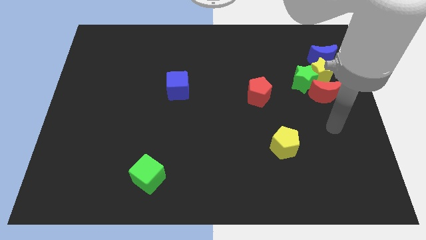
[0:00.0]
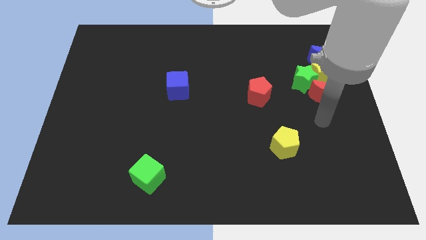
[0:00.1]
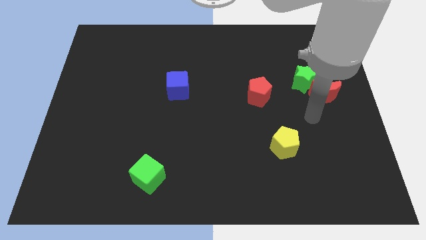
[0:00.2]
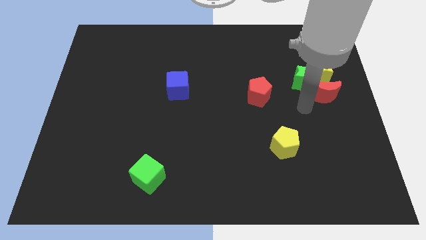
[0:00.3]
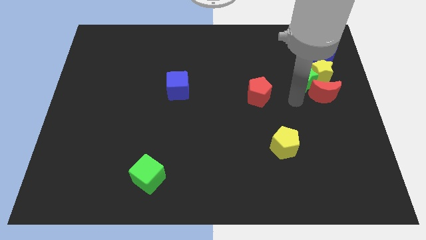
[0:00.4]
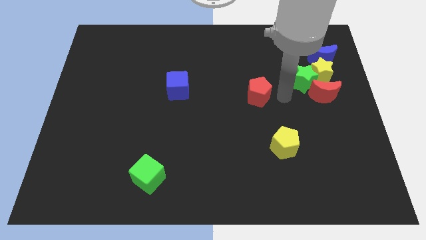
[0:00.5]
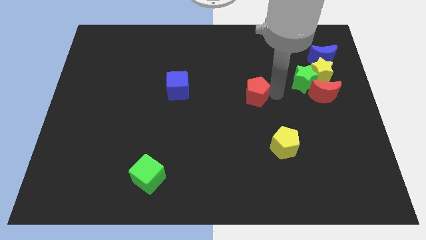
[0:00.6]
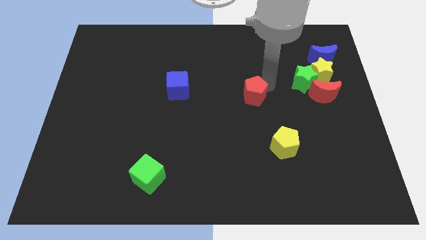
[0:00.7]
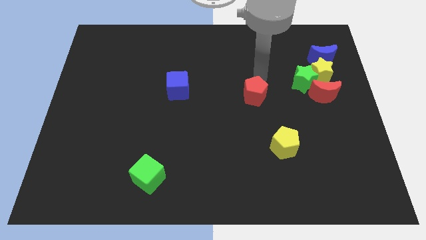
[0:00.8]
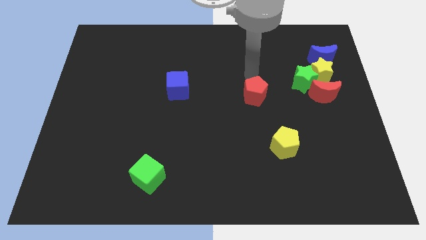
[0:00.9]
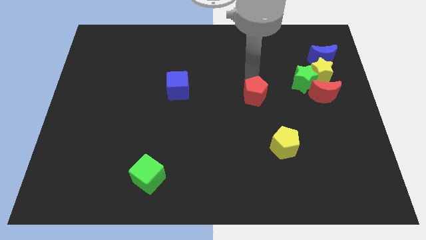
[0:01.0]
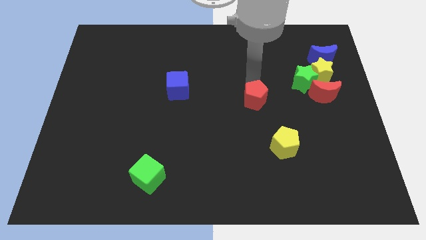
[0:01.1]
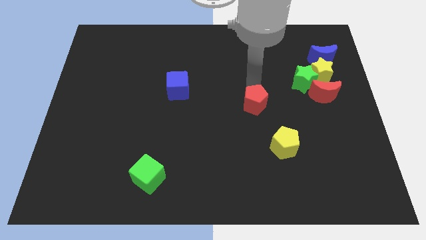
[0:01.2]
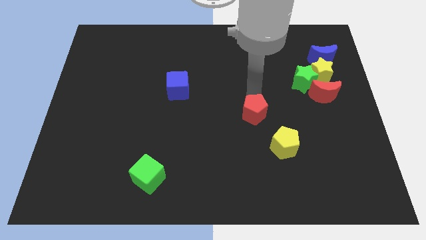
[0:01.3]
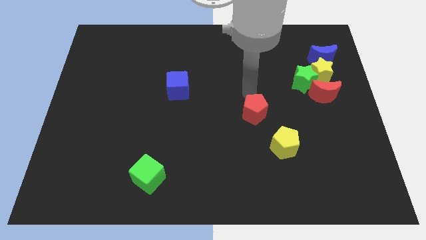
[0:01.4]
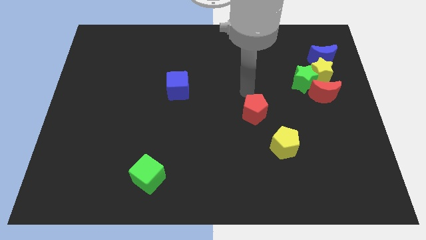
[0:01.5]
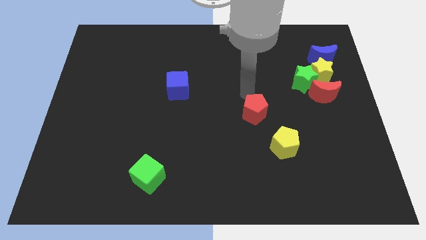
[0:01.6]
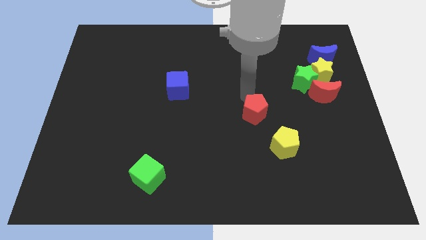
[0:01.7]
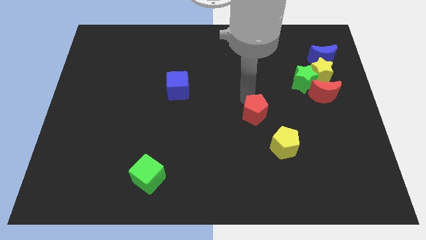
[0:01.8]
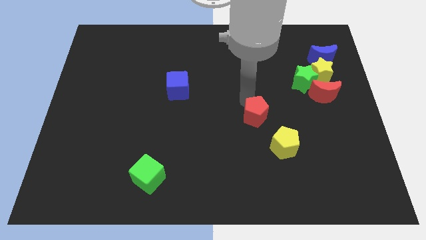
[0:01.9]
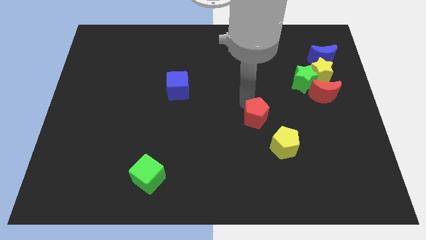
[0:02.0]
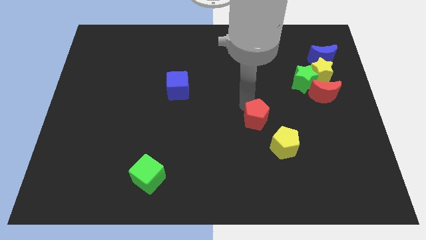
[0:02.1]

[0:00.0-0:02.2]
push the red pentagon a little down

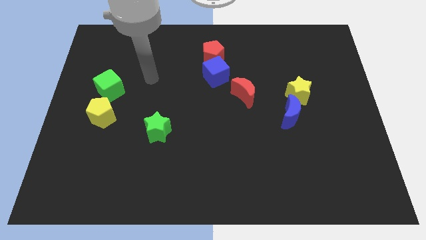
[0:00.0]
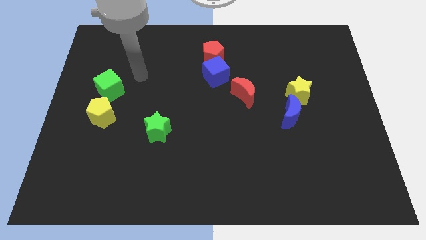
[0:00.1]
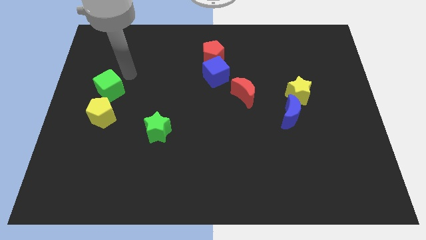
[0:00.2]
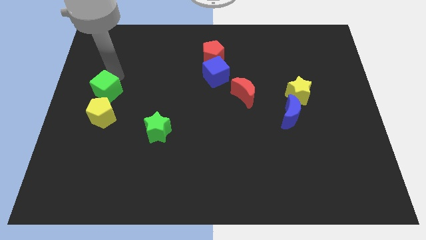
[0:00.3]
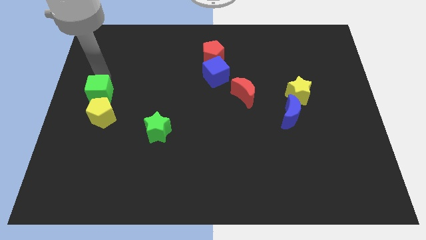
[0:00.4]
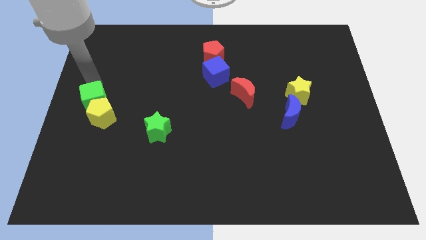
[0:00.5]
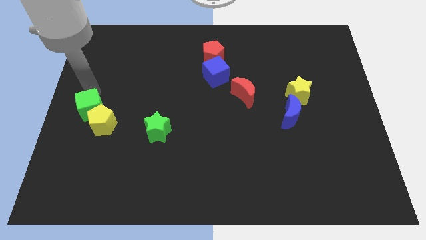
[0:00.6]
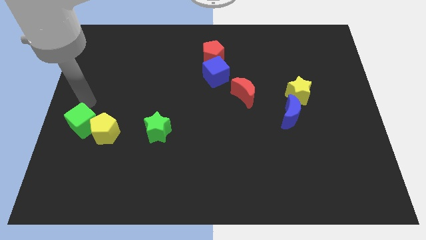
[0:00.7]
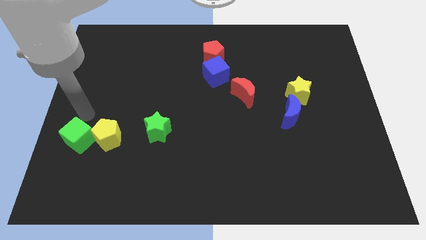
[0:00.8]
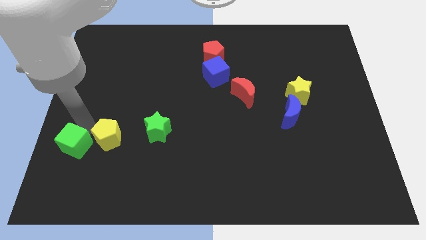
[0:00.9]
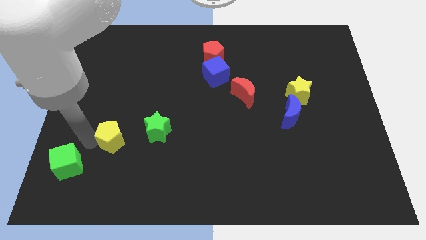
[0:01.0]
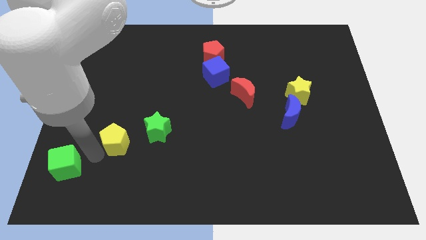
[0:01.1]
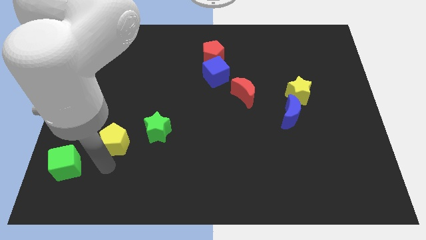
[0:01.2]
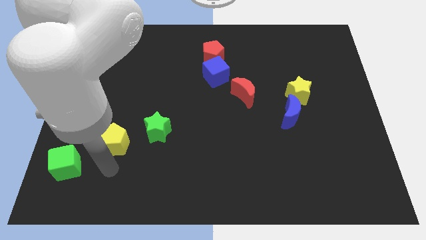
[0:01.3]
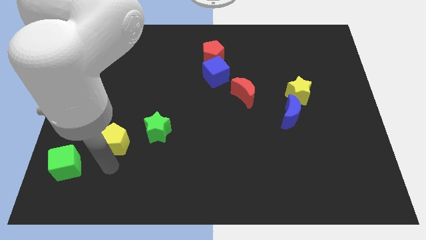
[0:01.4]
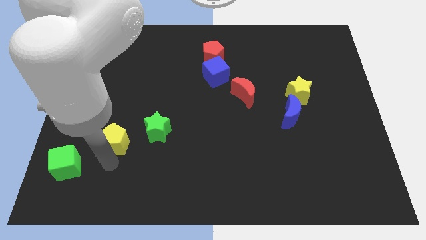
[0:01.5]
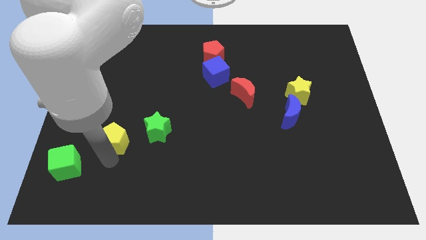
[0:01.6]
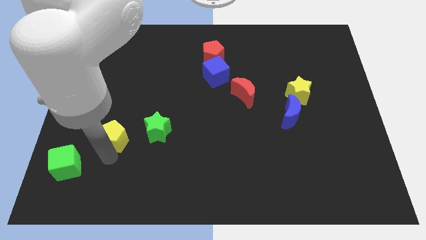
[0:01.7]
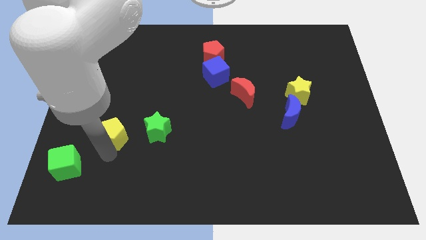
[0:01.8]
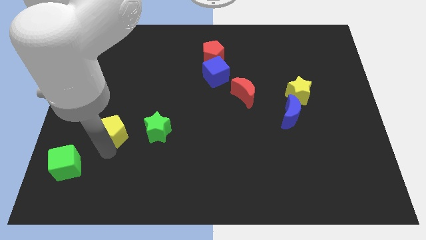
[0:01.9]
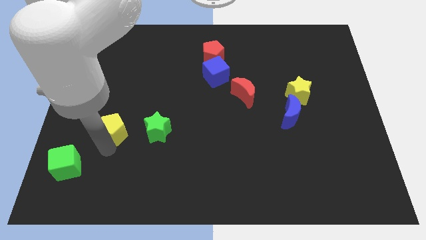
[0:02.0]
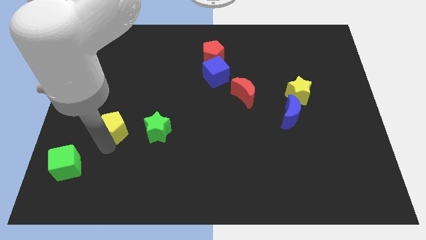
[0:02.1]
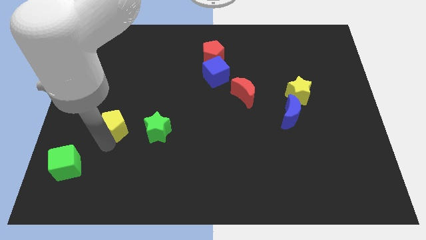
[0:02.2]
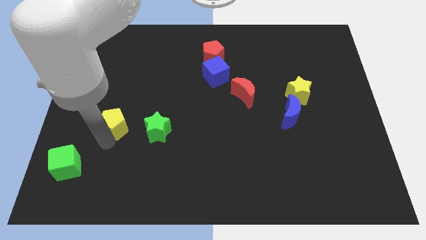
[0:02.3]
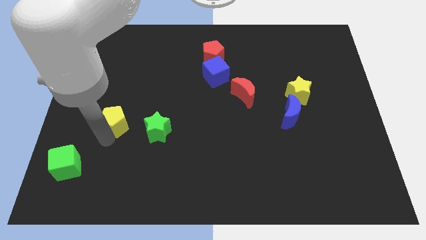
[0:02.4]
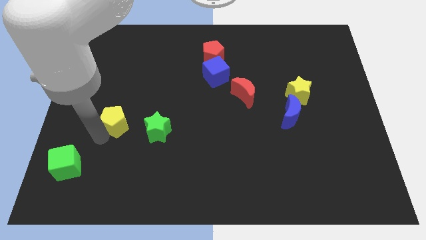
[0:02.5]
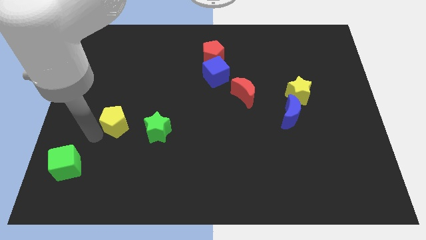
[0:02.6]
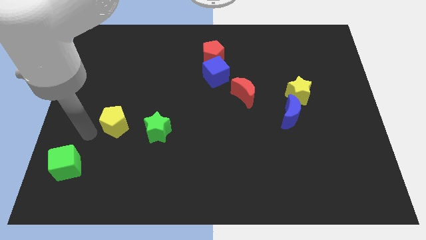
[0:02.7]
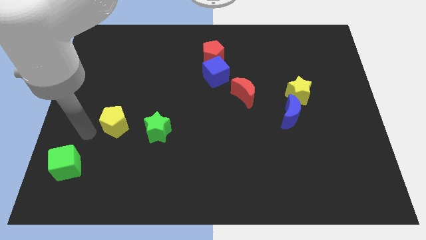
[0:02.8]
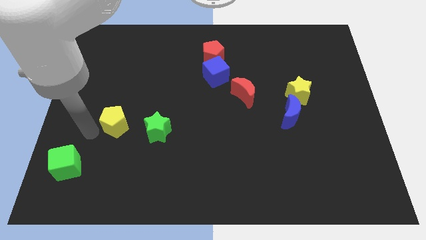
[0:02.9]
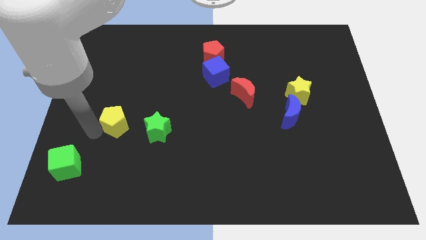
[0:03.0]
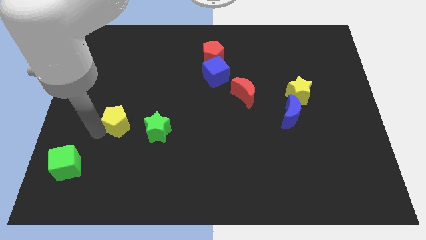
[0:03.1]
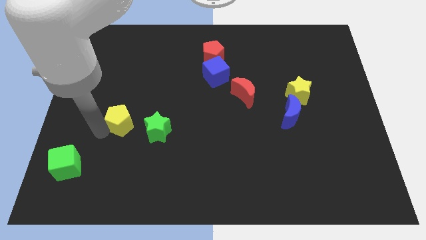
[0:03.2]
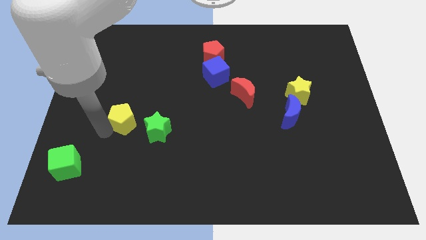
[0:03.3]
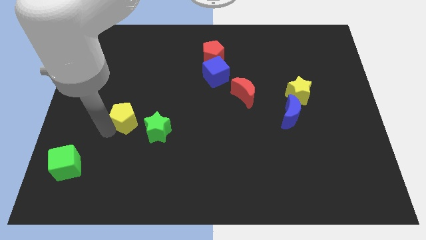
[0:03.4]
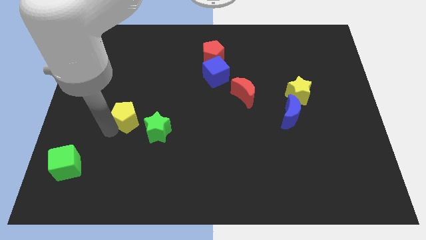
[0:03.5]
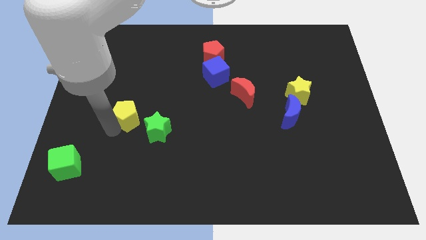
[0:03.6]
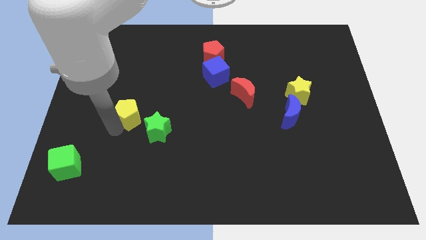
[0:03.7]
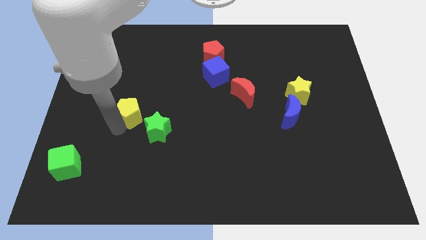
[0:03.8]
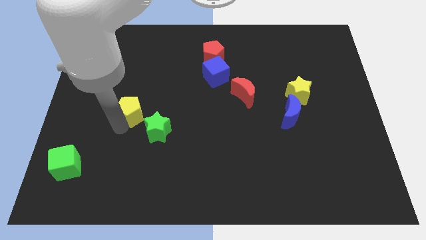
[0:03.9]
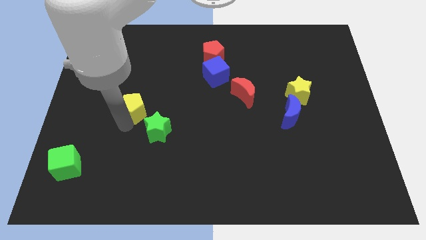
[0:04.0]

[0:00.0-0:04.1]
move the yellow pentagon right slightly

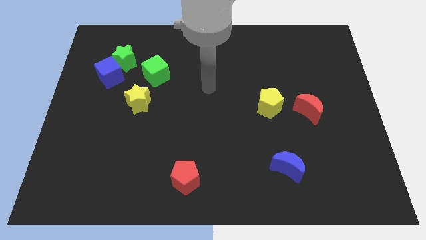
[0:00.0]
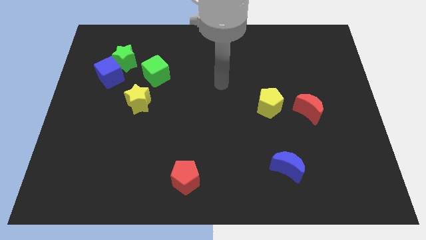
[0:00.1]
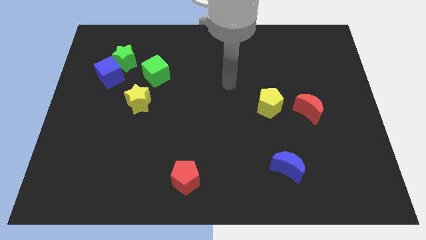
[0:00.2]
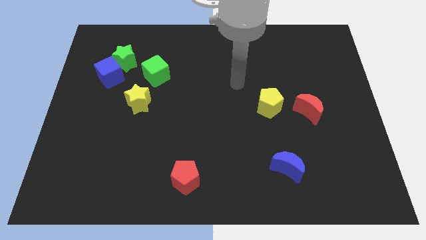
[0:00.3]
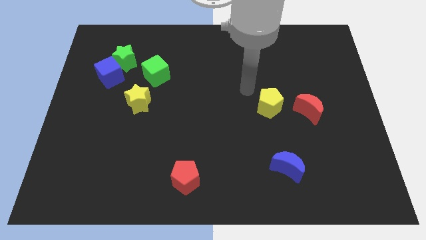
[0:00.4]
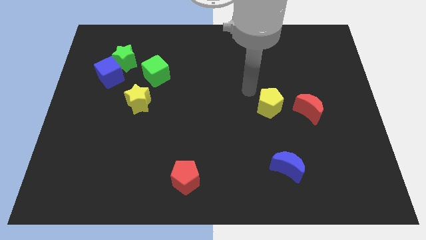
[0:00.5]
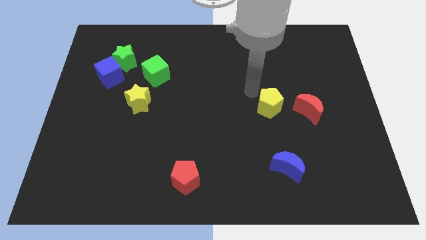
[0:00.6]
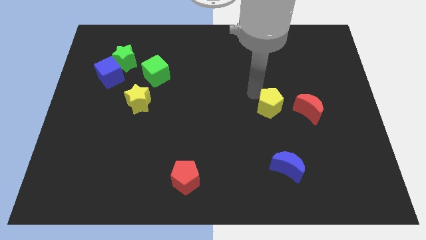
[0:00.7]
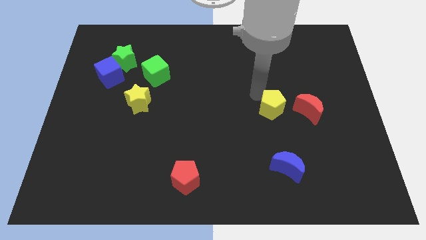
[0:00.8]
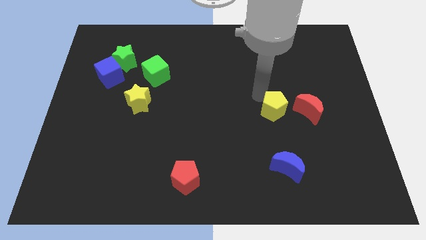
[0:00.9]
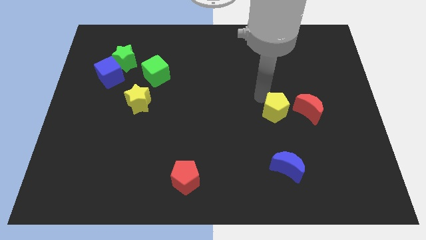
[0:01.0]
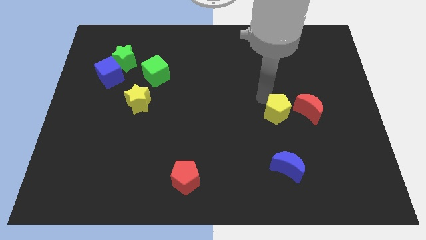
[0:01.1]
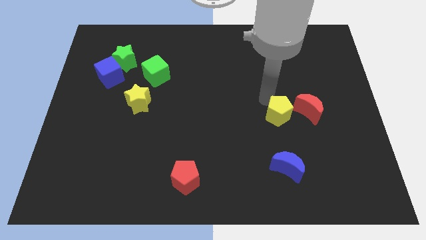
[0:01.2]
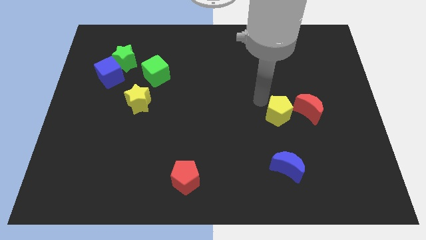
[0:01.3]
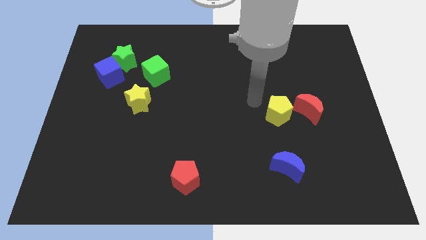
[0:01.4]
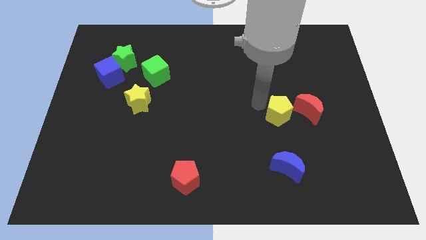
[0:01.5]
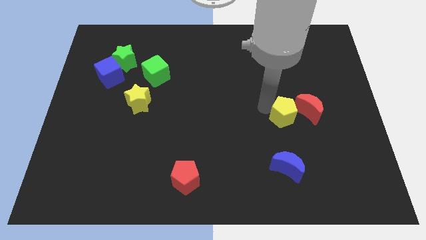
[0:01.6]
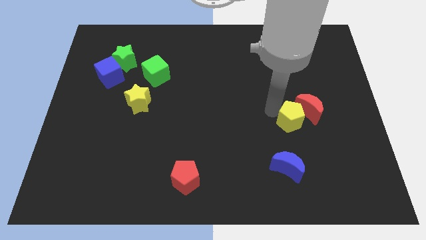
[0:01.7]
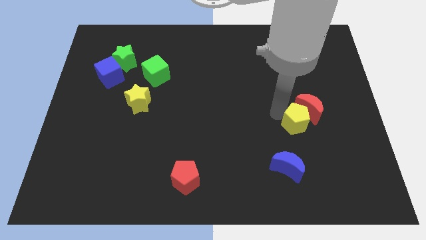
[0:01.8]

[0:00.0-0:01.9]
slide the yellow pentagon diagonally down and to the right a little
